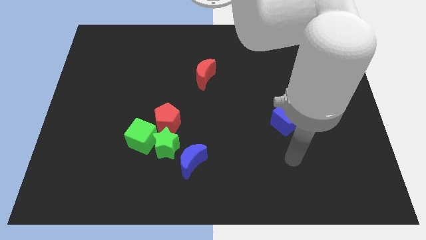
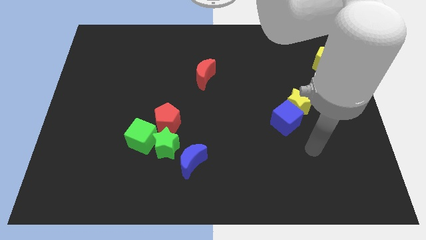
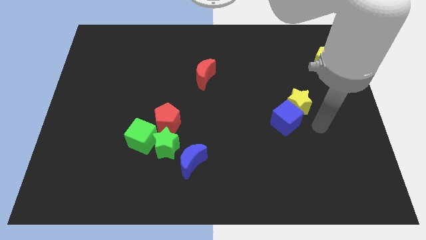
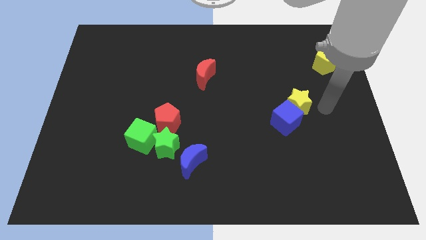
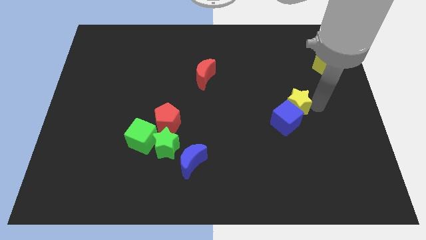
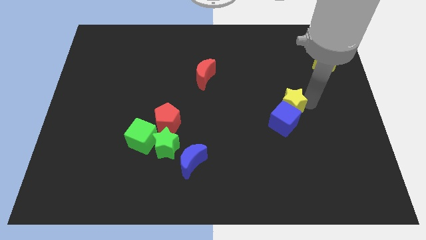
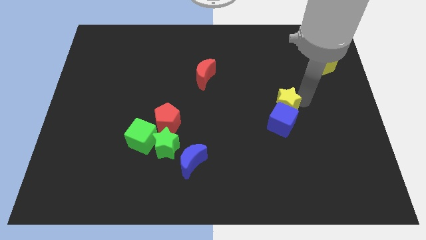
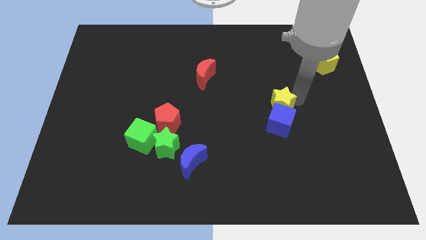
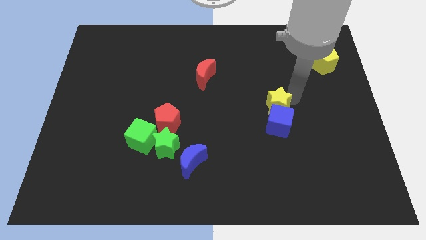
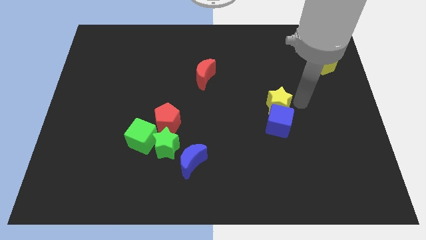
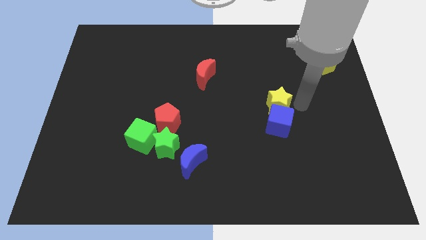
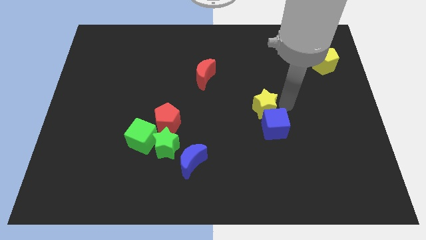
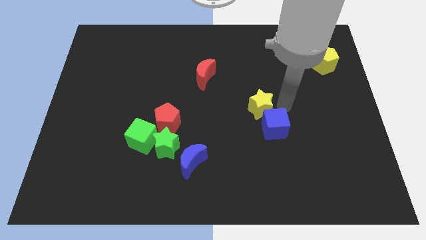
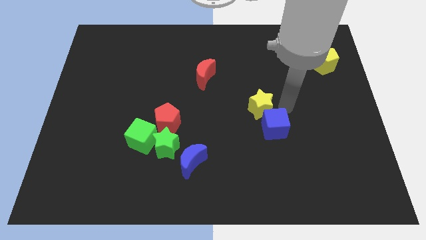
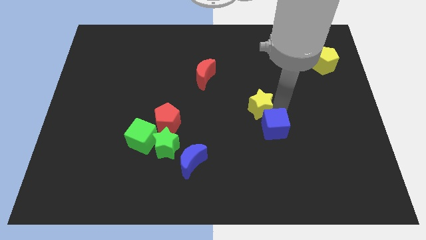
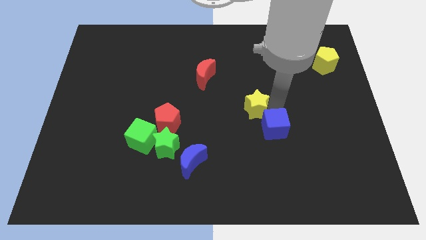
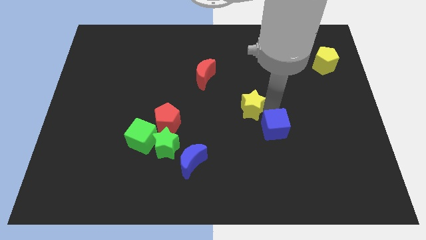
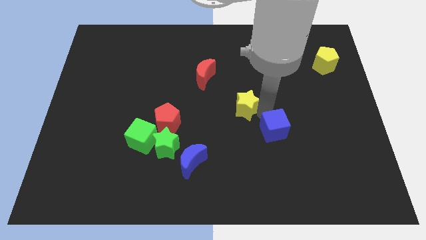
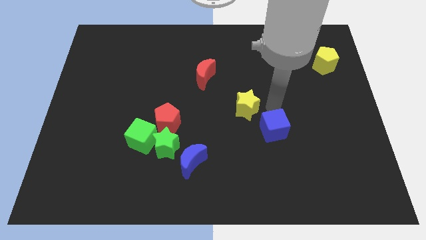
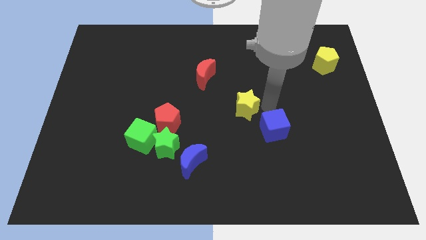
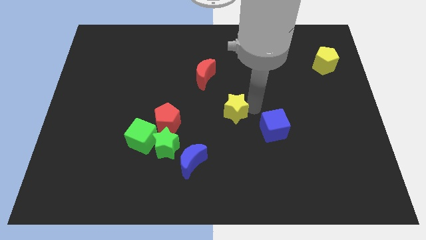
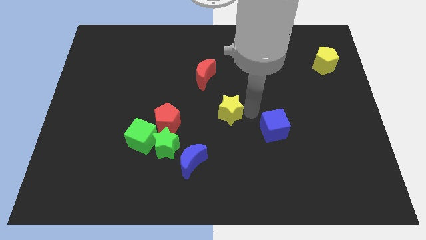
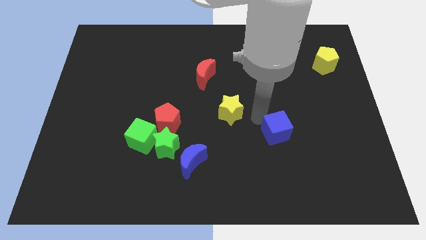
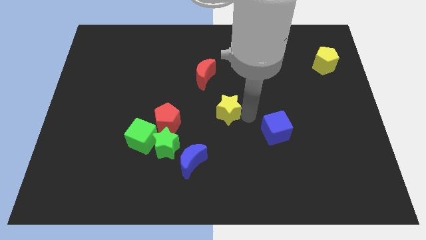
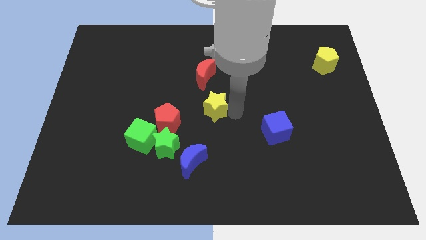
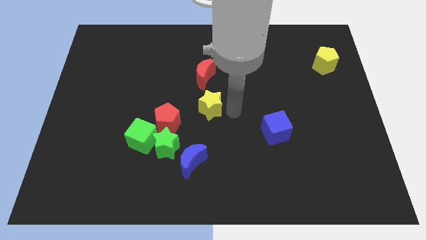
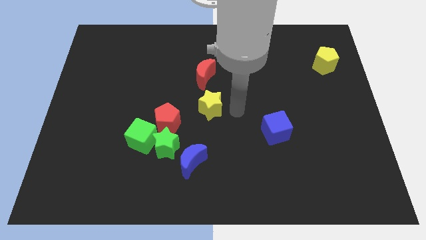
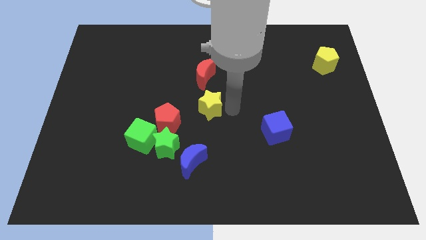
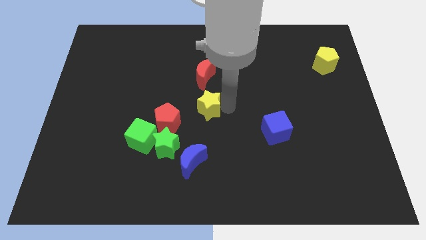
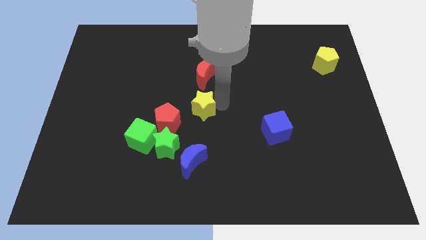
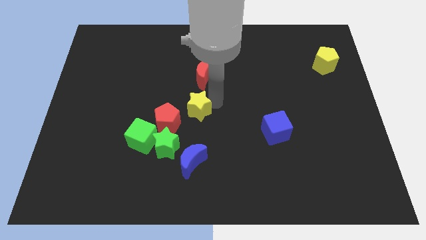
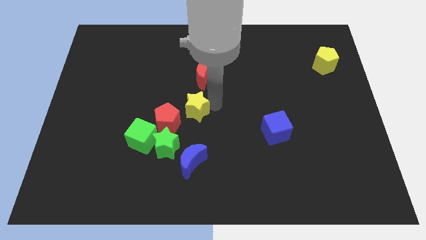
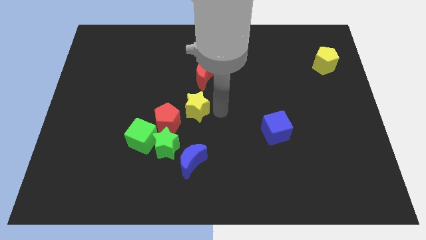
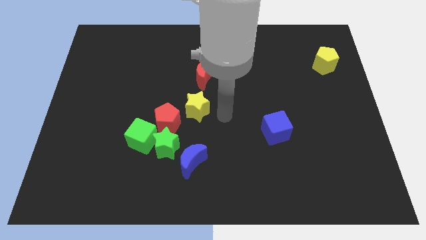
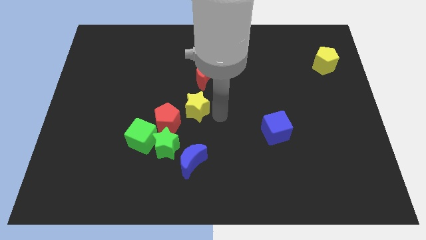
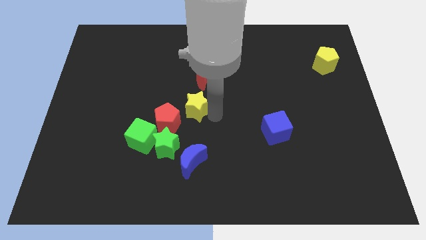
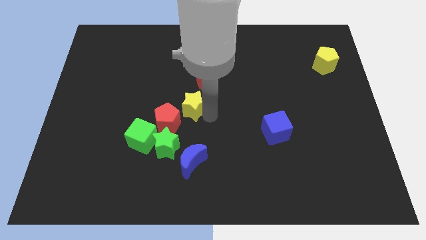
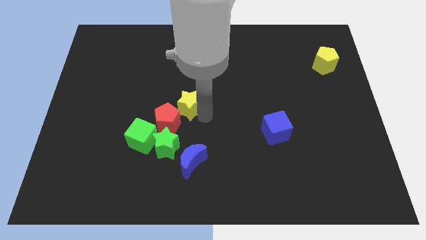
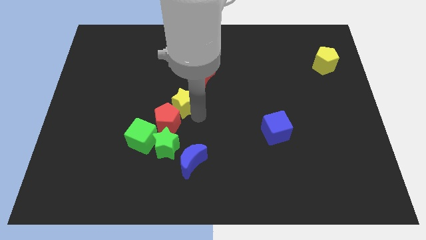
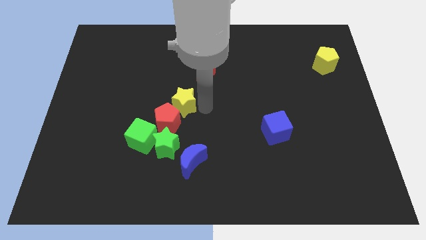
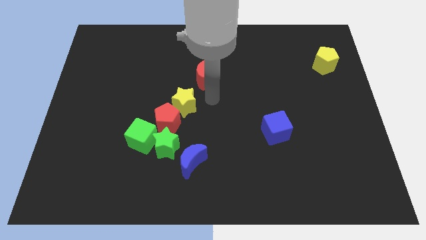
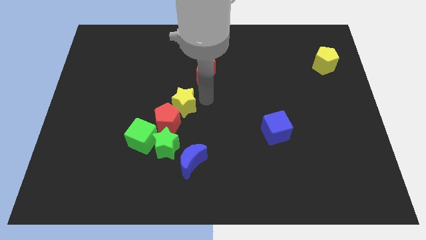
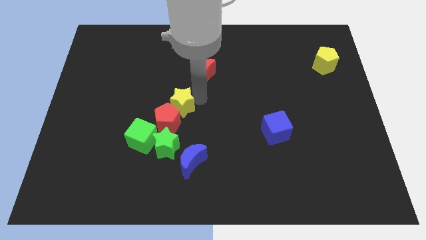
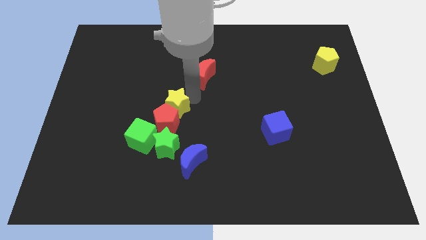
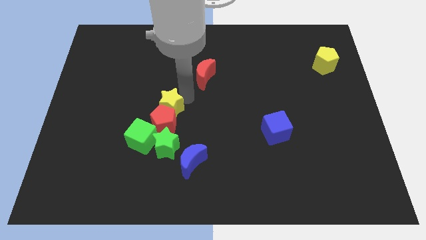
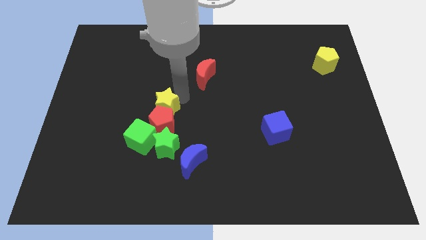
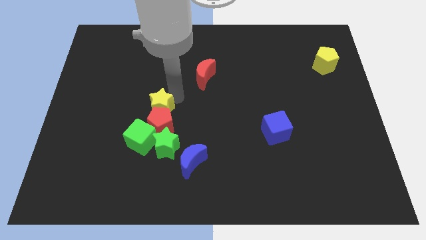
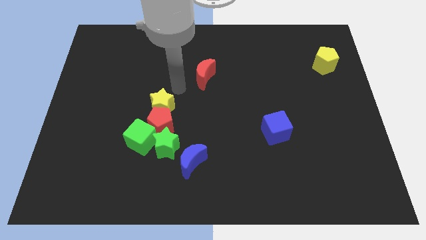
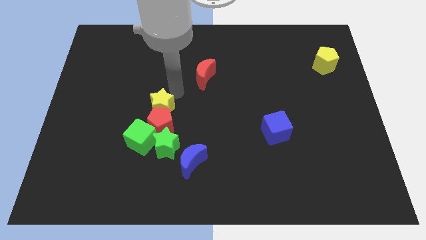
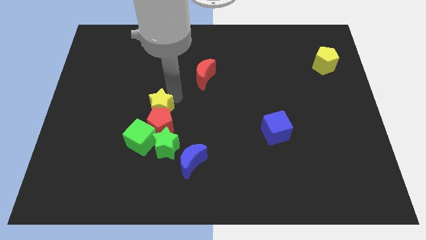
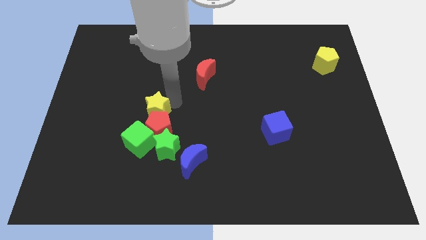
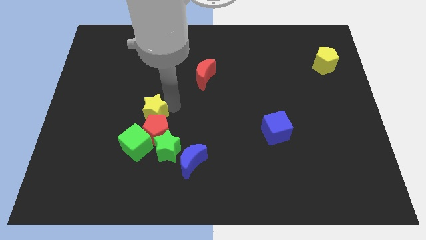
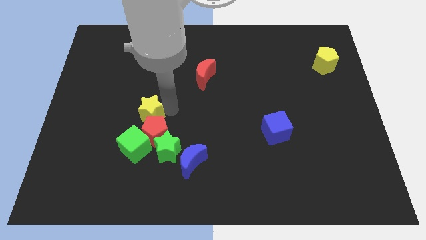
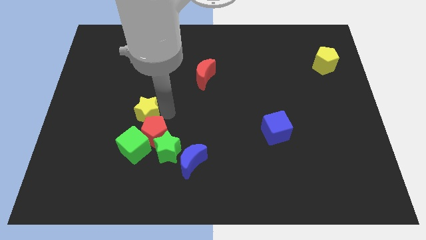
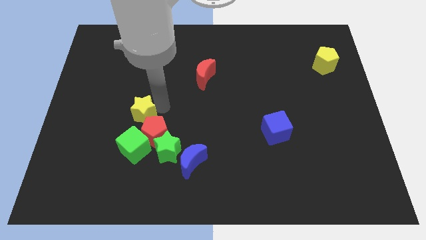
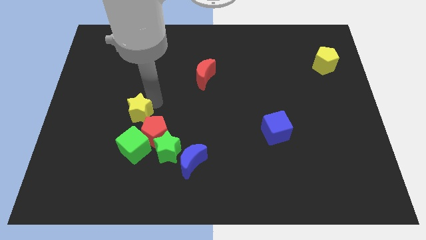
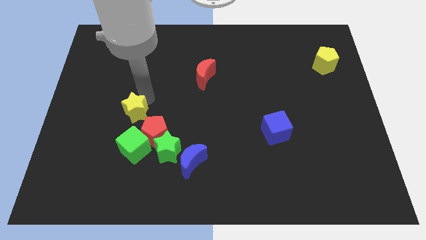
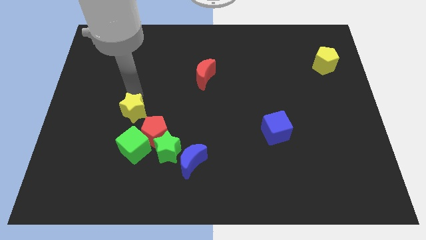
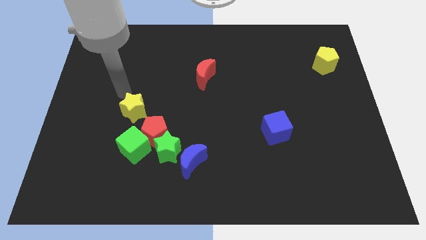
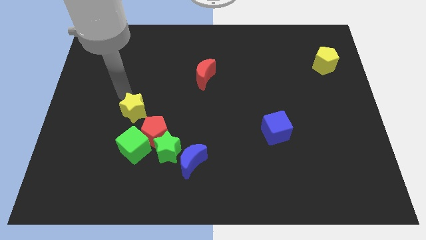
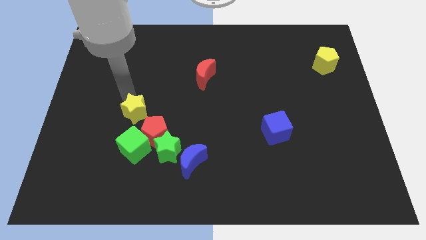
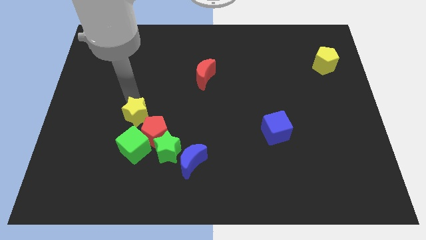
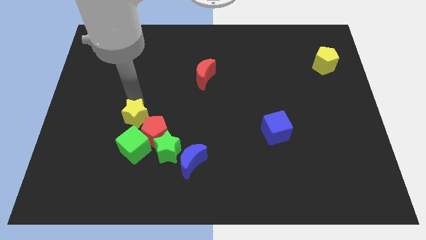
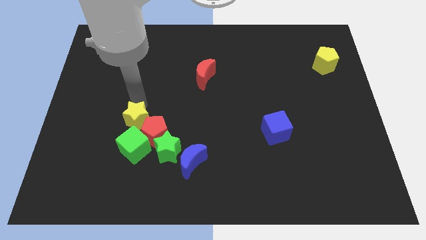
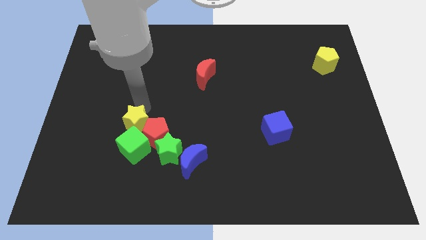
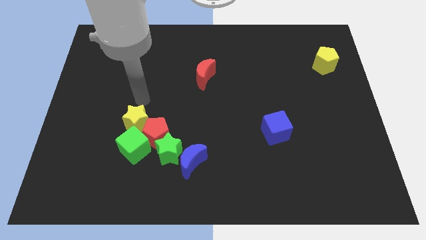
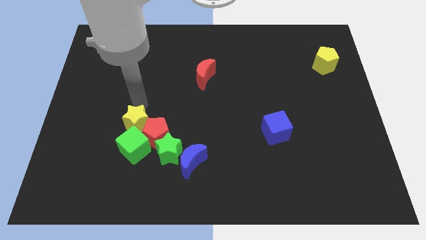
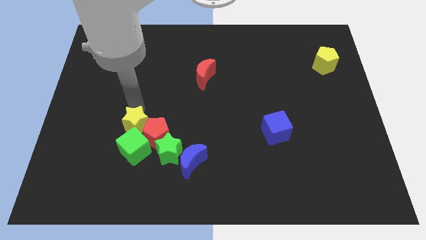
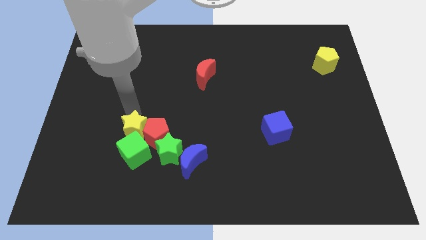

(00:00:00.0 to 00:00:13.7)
put the yellow star next to the green cube

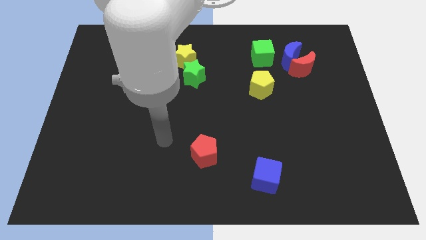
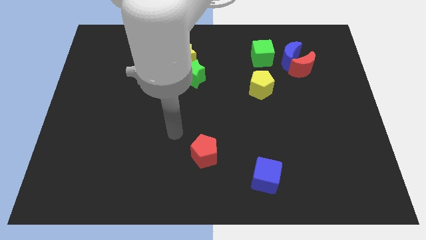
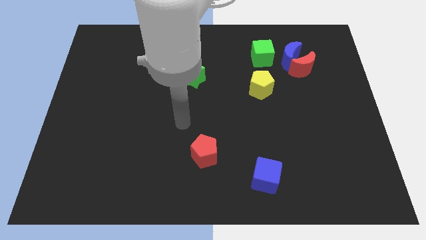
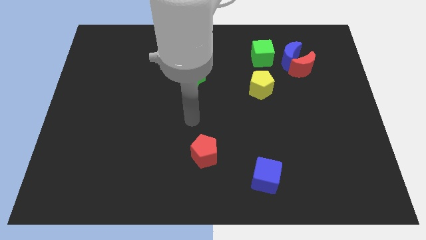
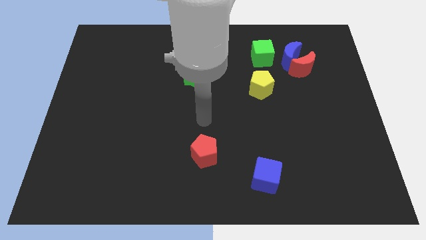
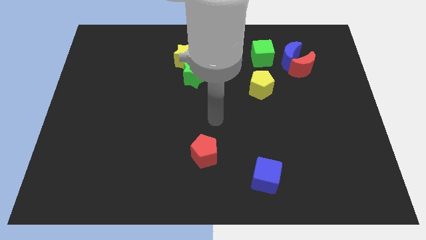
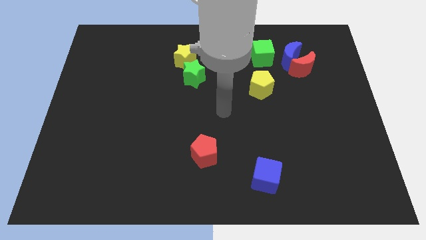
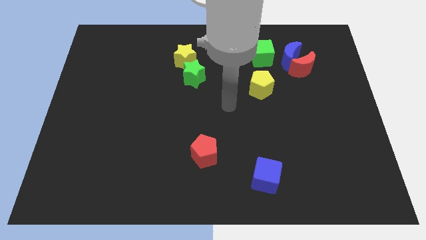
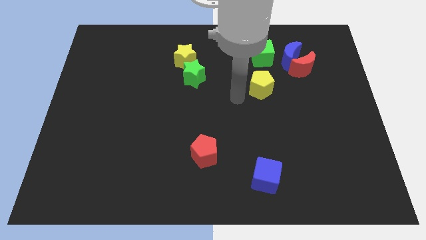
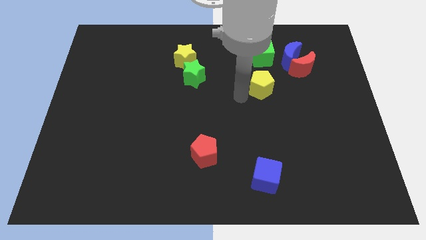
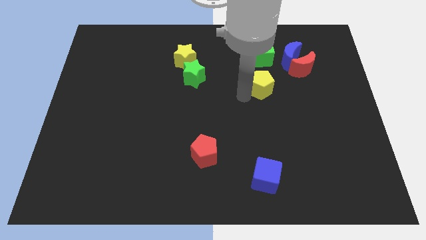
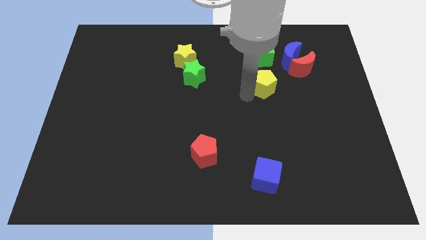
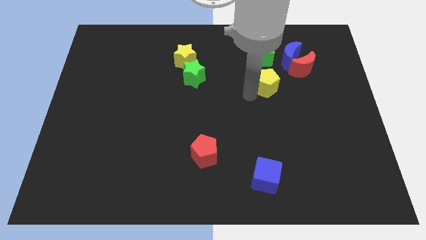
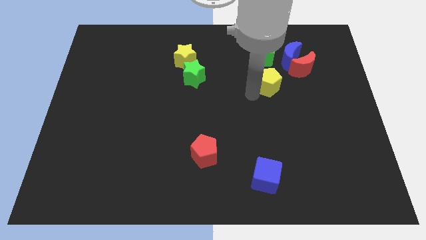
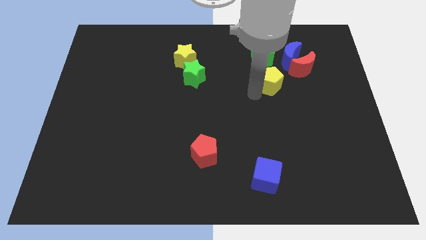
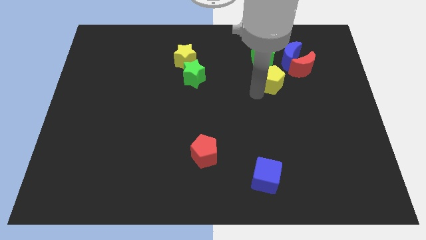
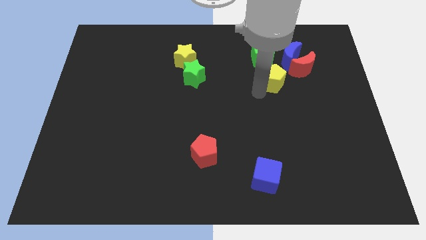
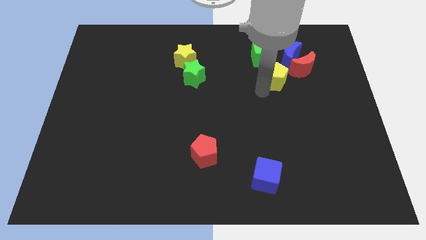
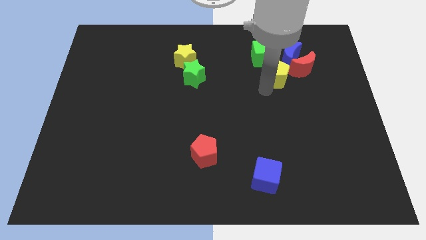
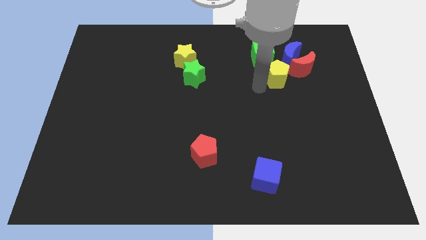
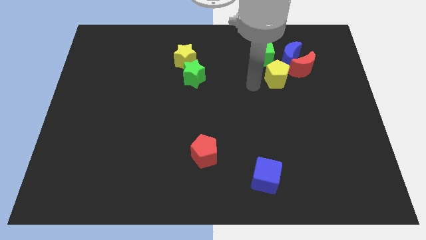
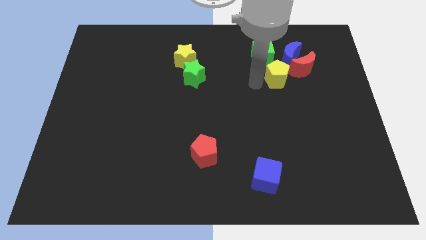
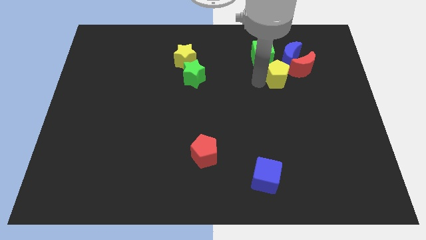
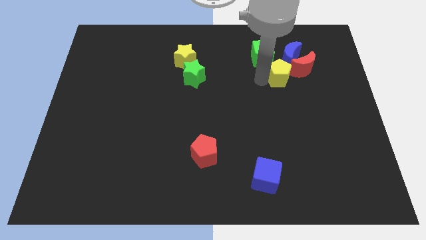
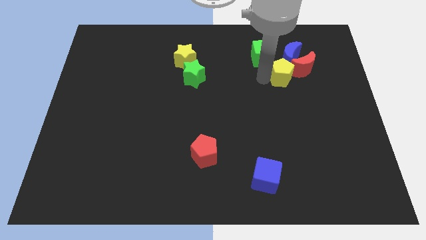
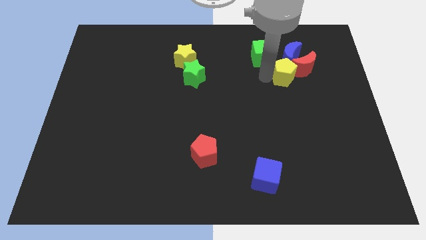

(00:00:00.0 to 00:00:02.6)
move the yellow pentagon next to the red moon
